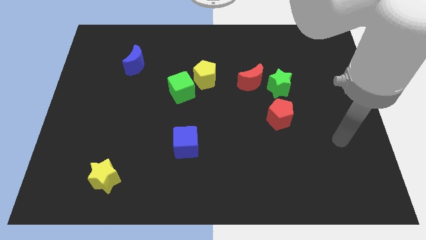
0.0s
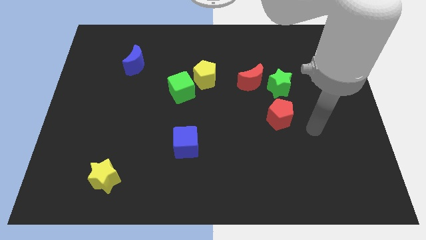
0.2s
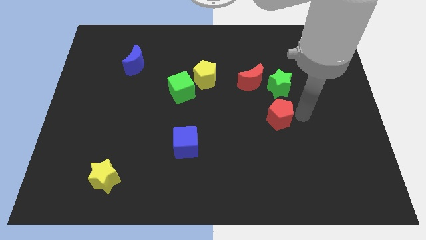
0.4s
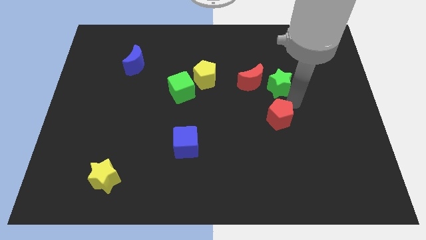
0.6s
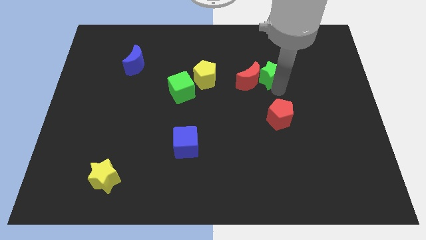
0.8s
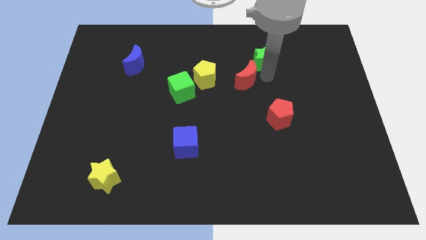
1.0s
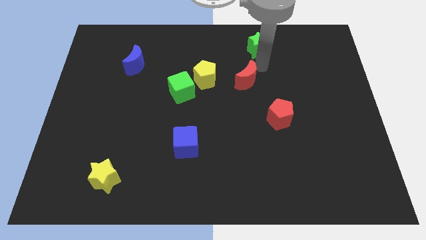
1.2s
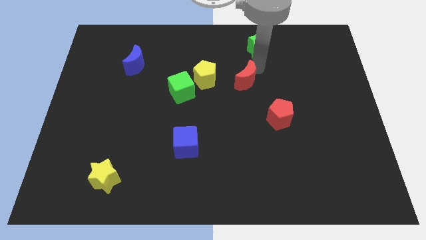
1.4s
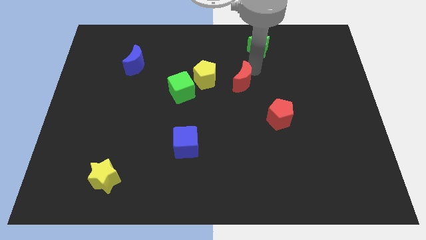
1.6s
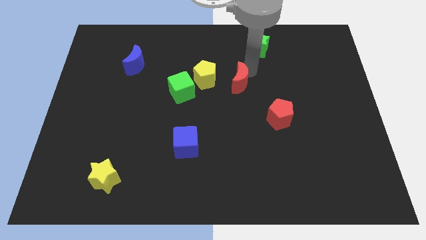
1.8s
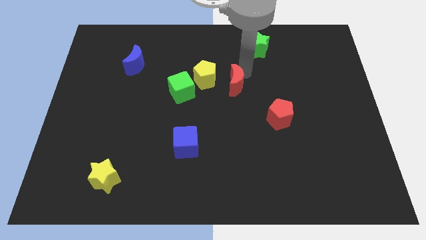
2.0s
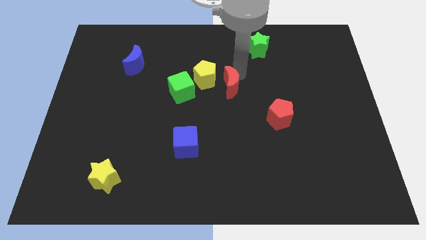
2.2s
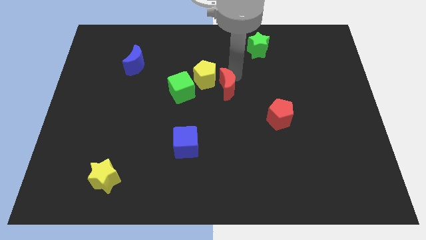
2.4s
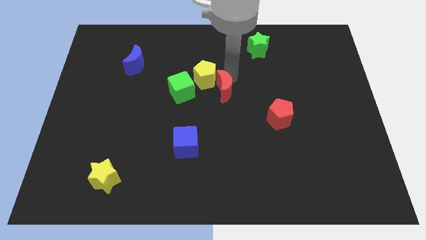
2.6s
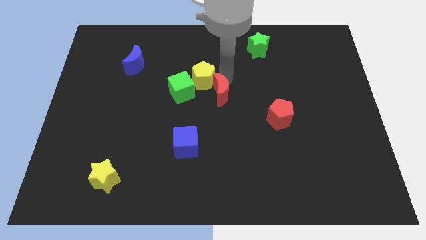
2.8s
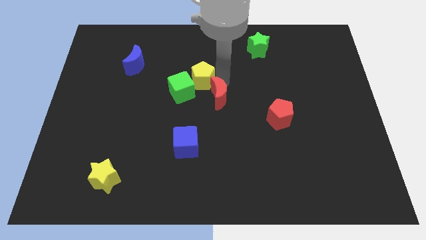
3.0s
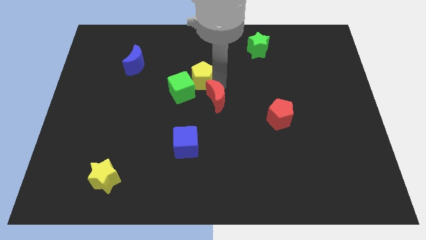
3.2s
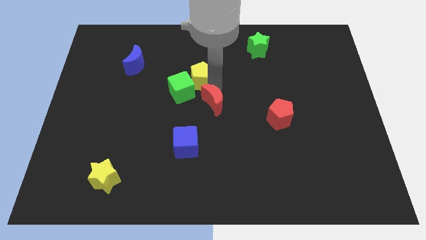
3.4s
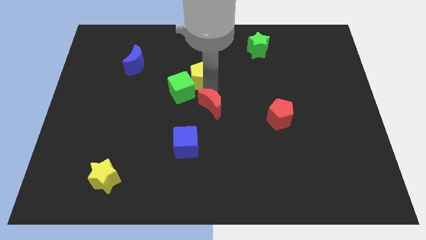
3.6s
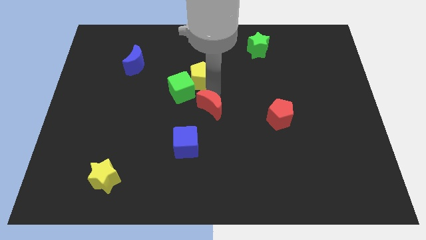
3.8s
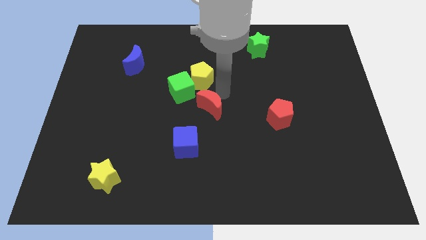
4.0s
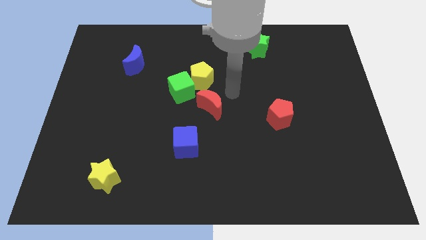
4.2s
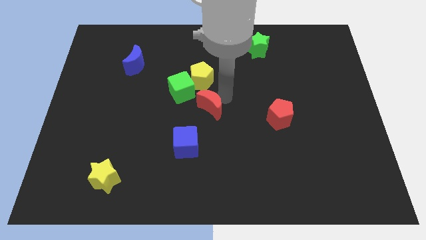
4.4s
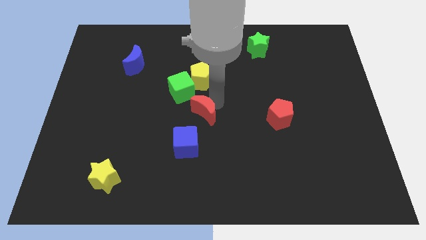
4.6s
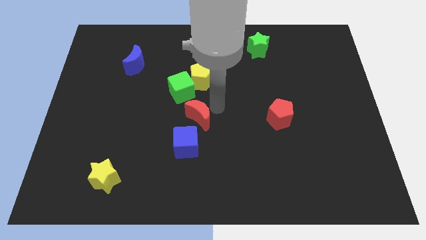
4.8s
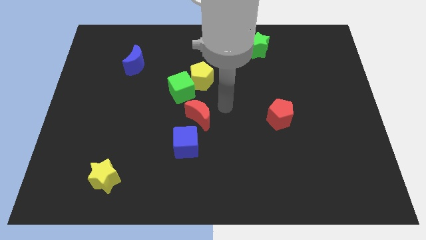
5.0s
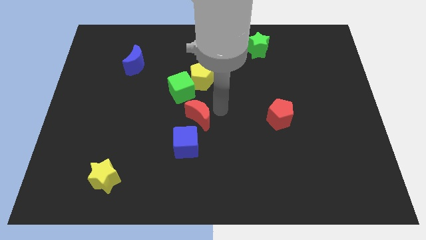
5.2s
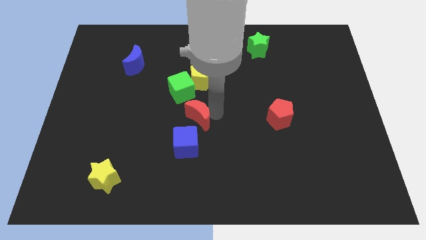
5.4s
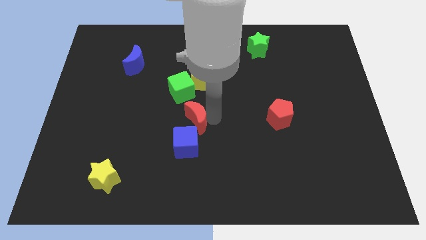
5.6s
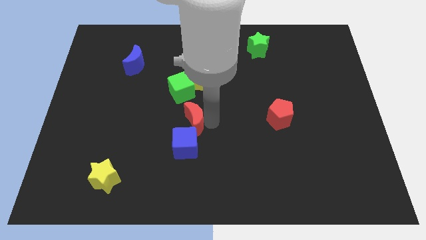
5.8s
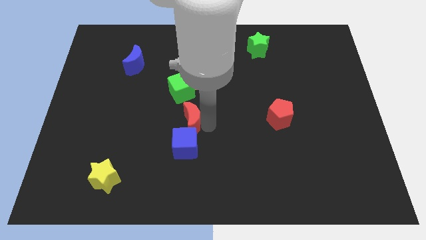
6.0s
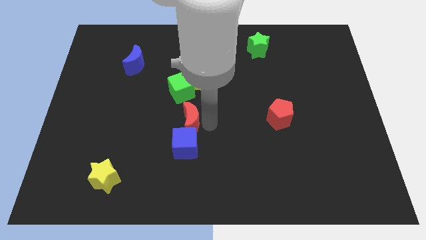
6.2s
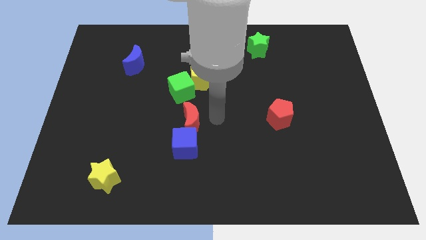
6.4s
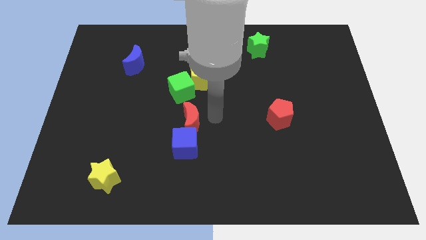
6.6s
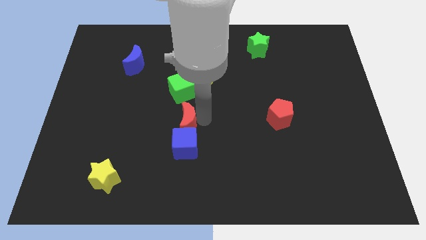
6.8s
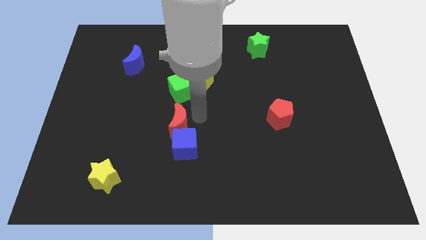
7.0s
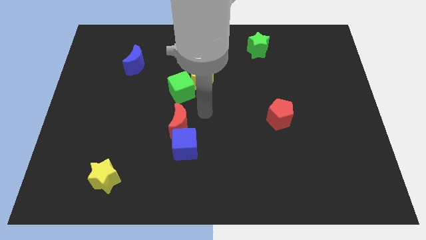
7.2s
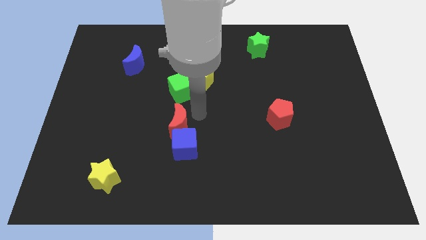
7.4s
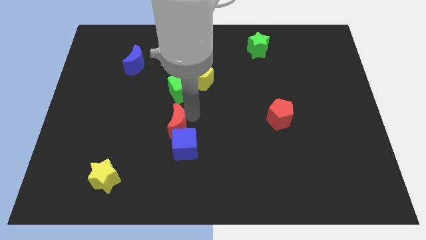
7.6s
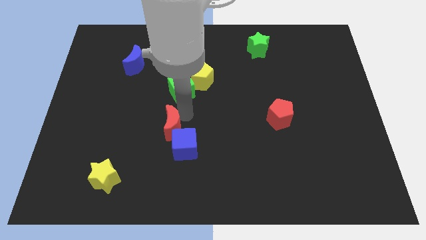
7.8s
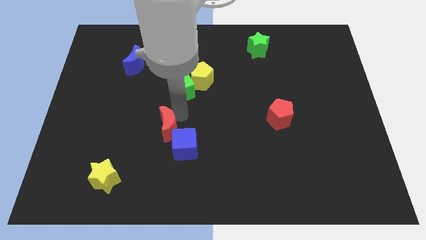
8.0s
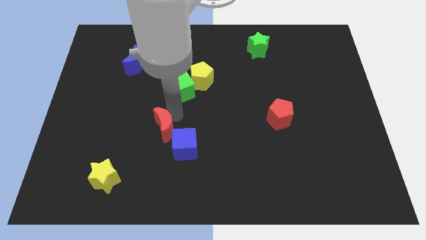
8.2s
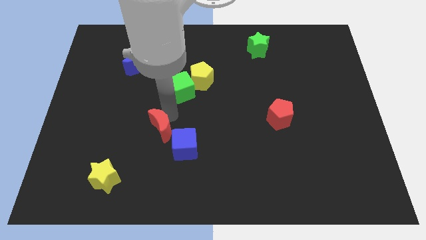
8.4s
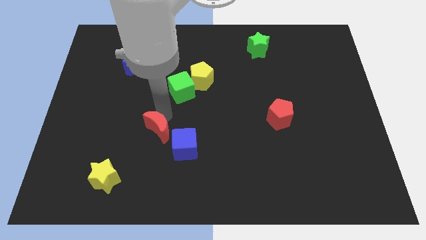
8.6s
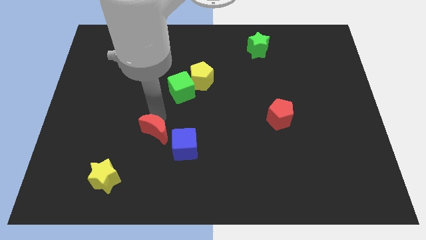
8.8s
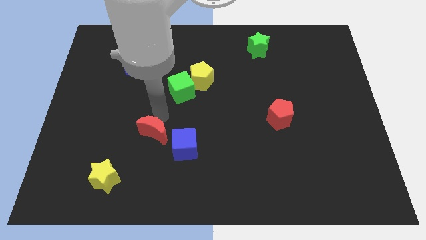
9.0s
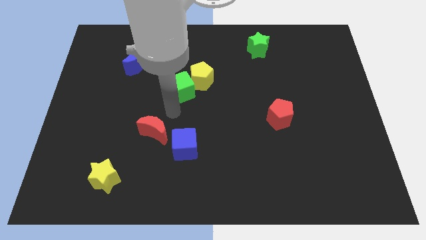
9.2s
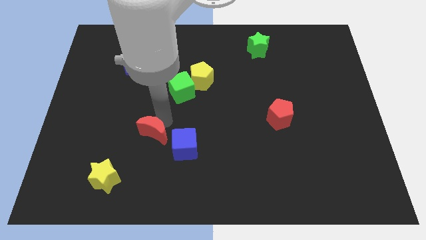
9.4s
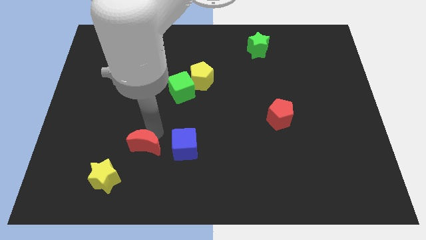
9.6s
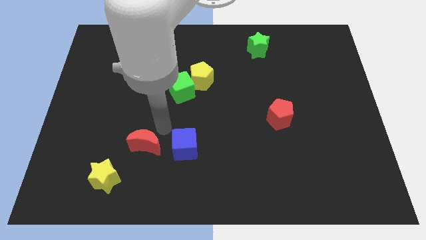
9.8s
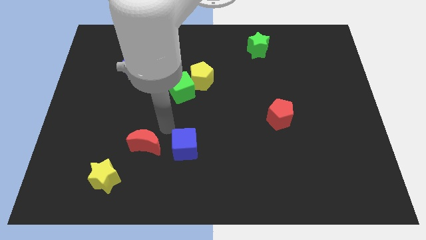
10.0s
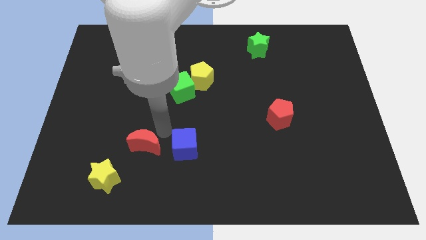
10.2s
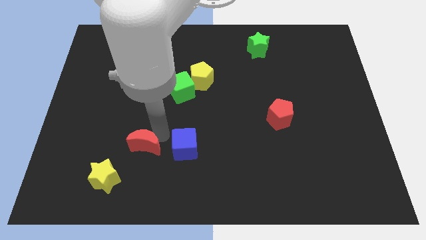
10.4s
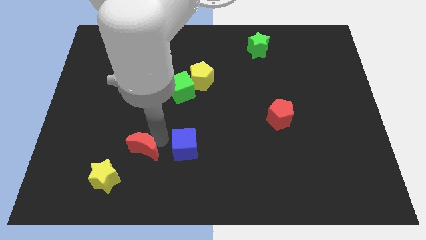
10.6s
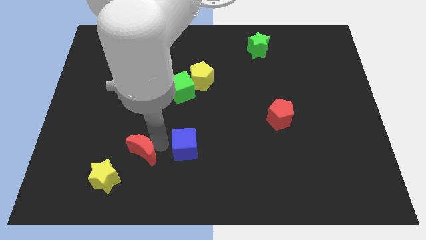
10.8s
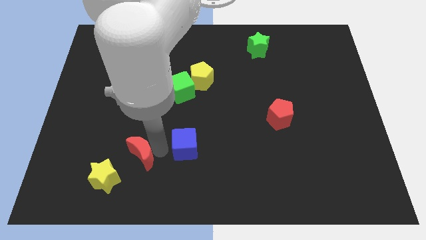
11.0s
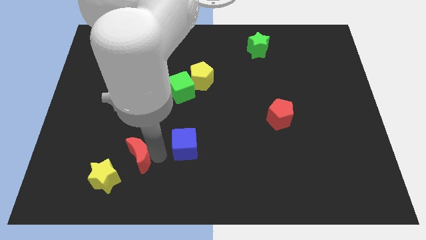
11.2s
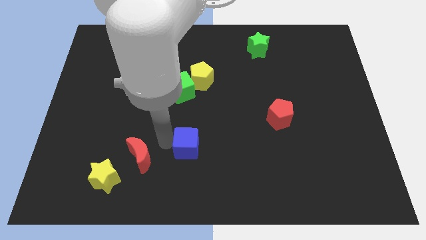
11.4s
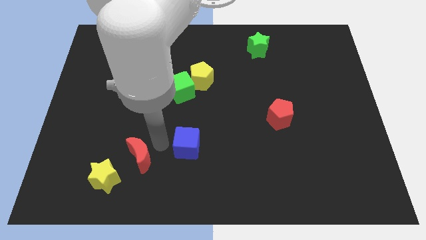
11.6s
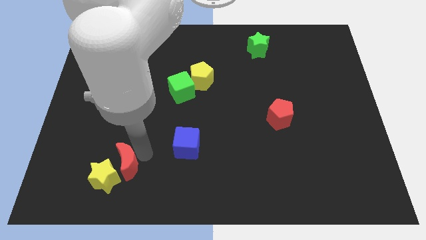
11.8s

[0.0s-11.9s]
push the red moon close to the yellow star

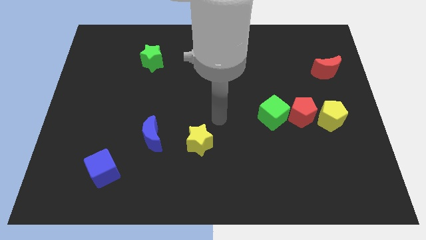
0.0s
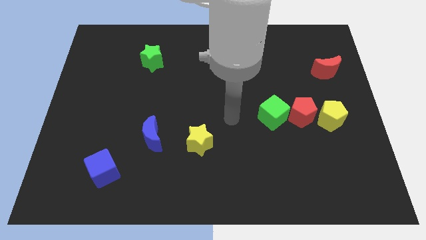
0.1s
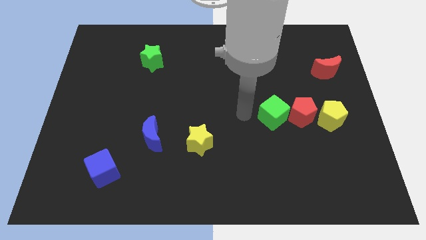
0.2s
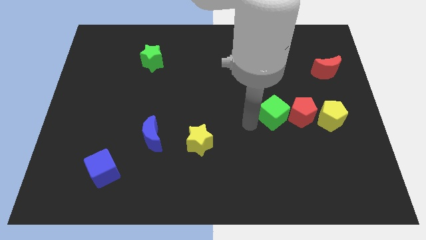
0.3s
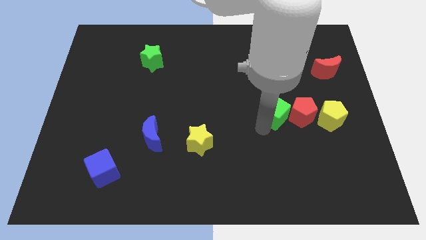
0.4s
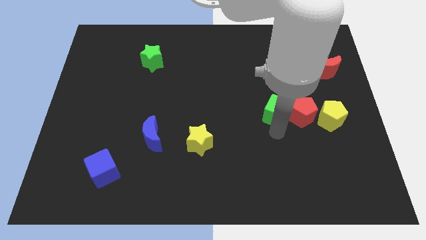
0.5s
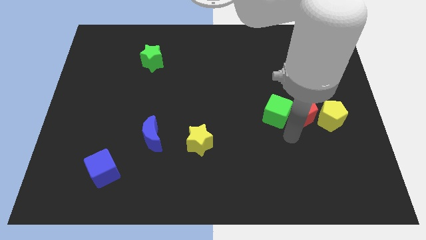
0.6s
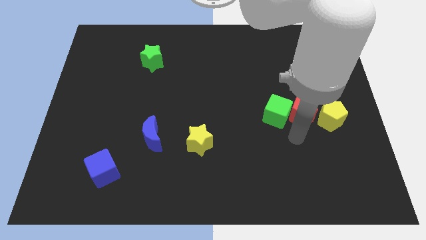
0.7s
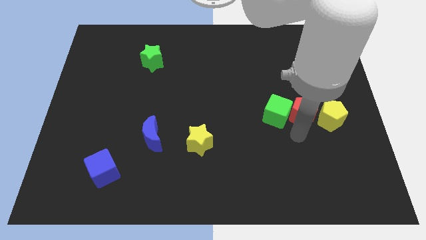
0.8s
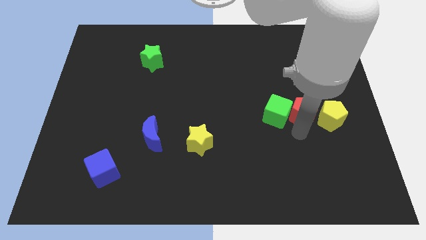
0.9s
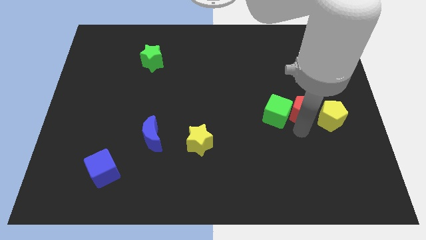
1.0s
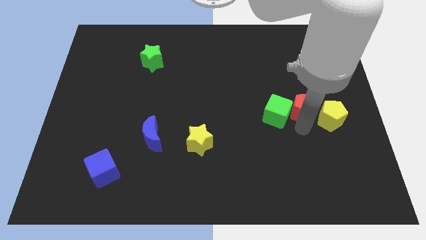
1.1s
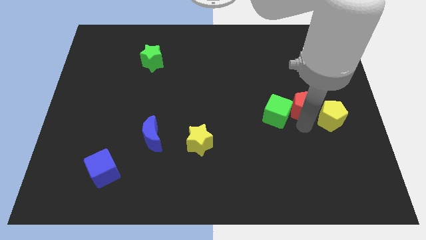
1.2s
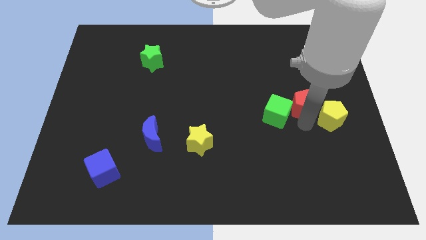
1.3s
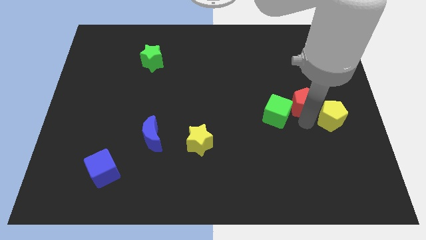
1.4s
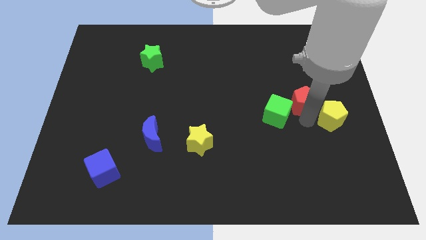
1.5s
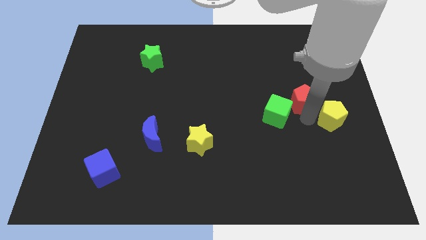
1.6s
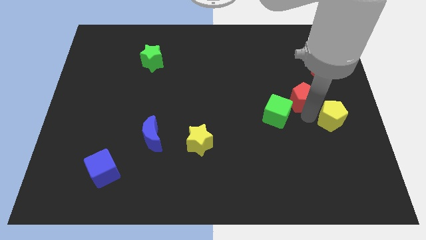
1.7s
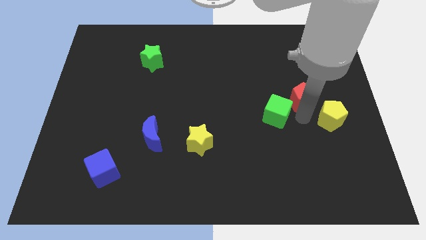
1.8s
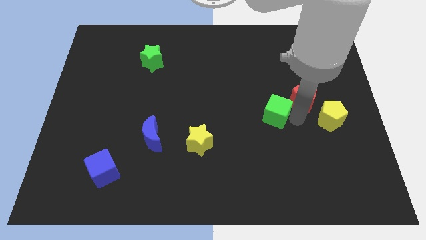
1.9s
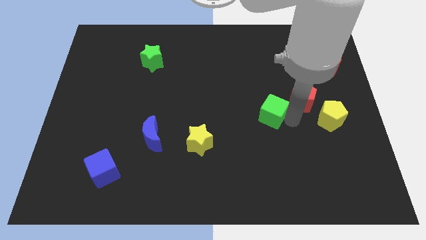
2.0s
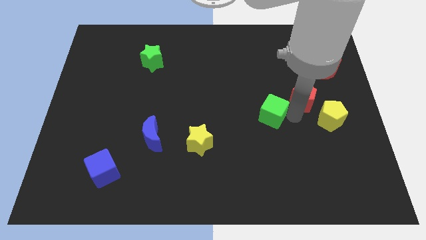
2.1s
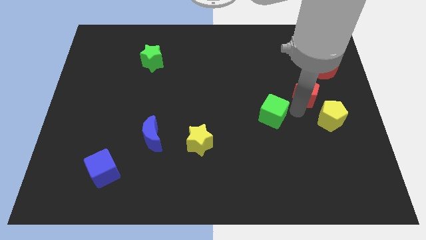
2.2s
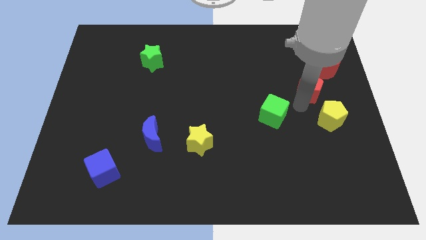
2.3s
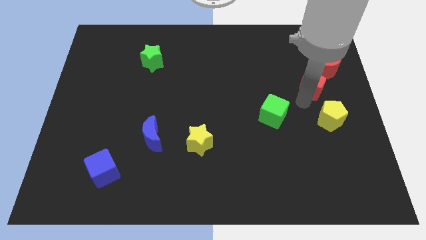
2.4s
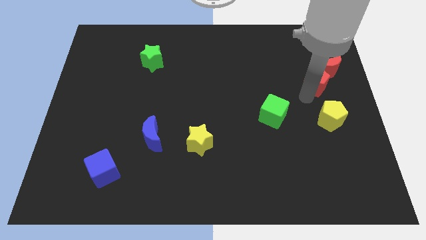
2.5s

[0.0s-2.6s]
move the red pentagon next to the red moon
